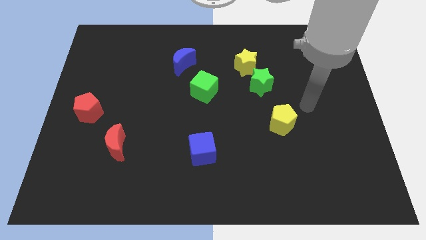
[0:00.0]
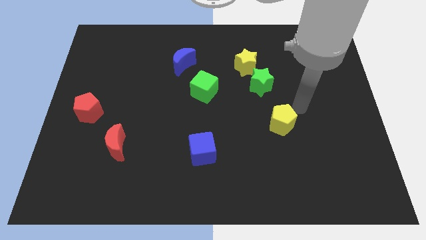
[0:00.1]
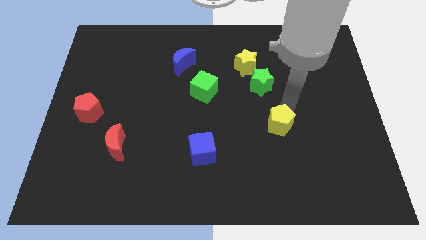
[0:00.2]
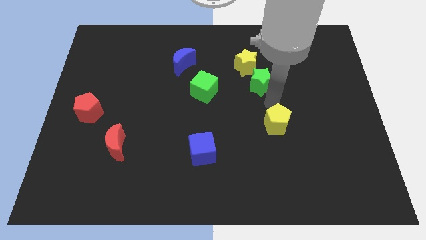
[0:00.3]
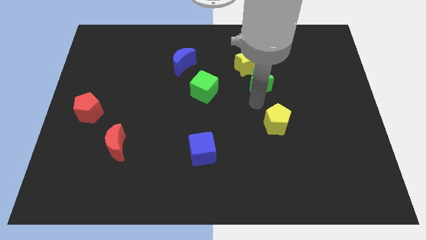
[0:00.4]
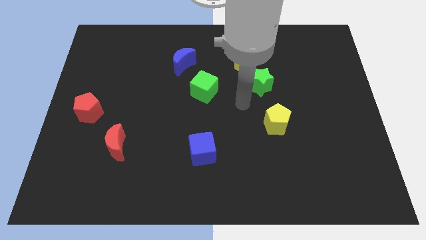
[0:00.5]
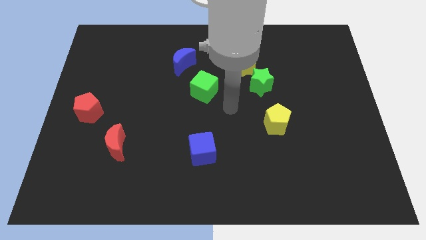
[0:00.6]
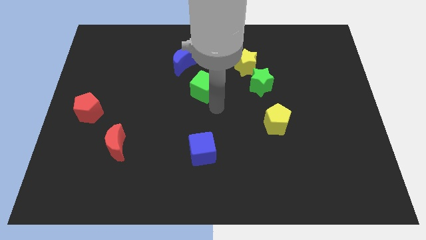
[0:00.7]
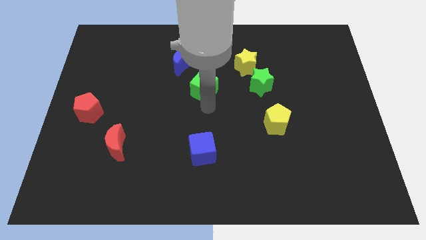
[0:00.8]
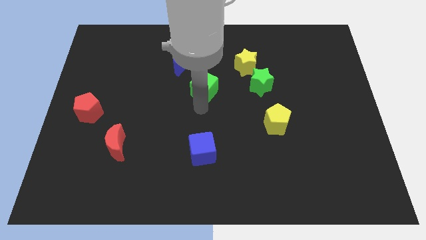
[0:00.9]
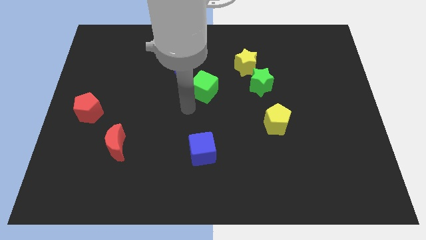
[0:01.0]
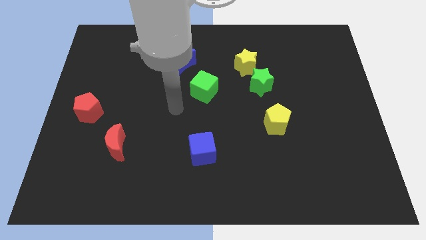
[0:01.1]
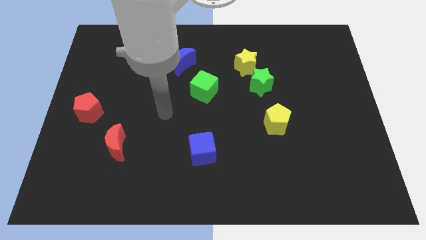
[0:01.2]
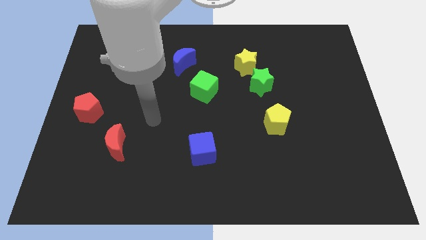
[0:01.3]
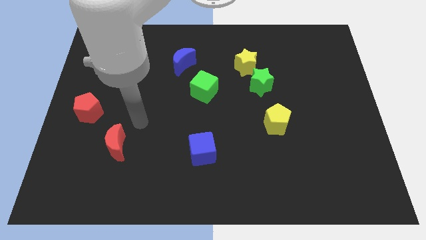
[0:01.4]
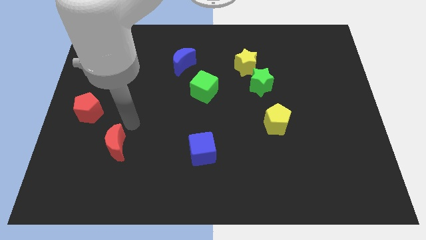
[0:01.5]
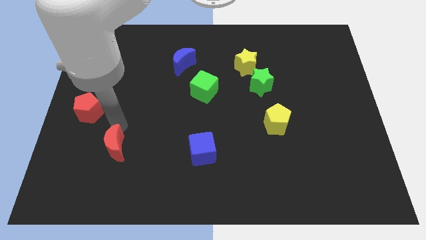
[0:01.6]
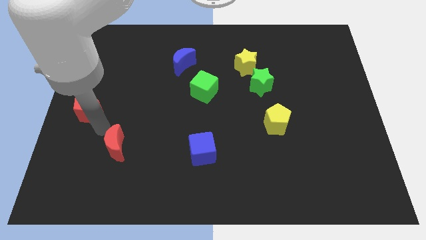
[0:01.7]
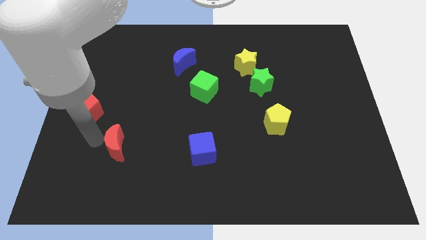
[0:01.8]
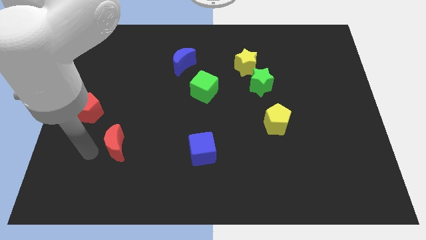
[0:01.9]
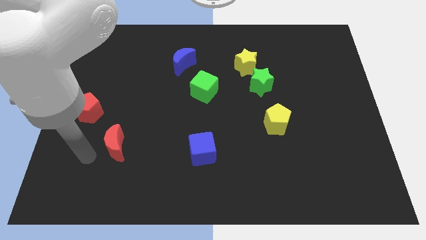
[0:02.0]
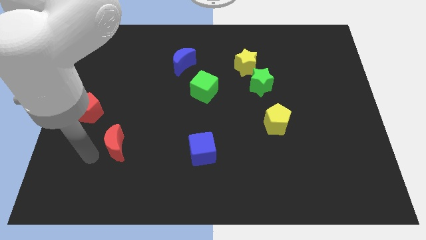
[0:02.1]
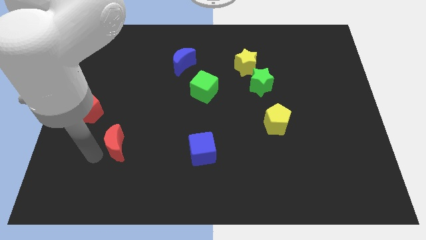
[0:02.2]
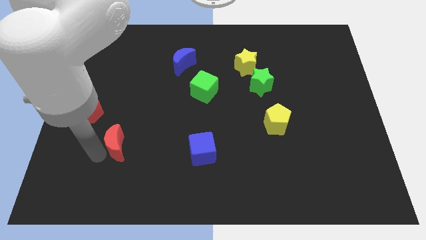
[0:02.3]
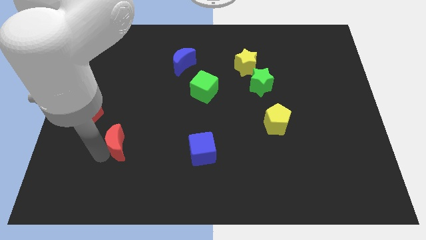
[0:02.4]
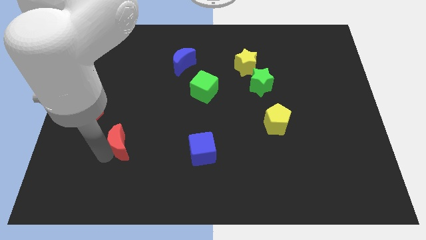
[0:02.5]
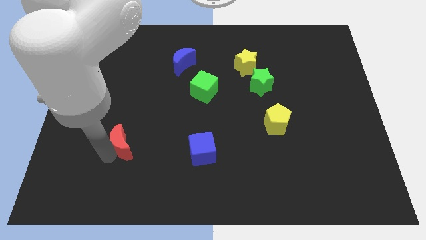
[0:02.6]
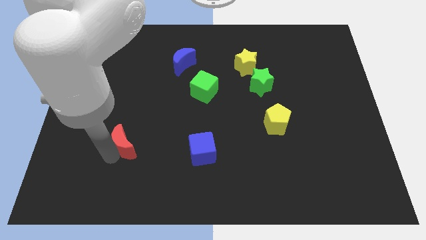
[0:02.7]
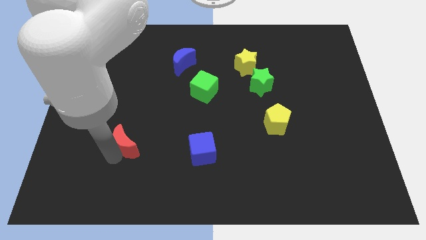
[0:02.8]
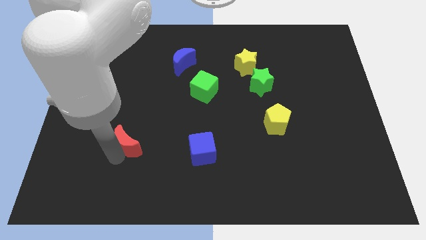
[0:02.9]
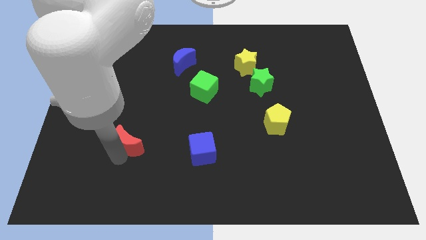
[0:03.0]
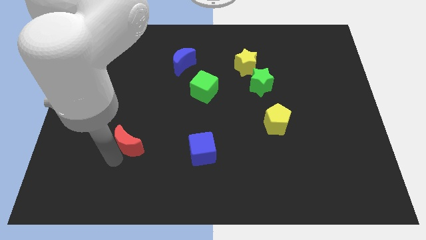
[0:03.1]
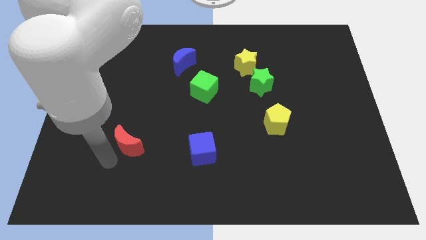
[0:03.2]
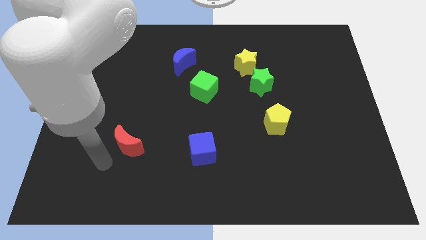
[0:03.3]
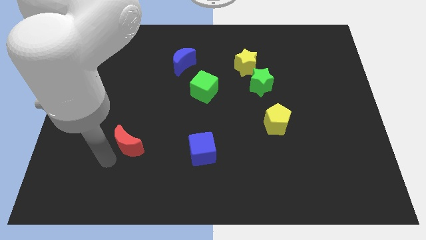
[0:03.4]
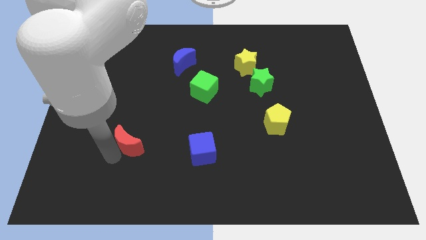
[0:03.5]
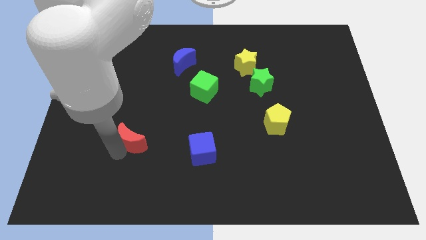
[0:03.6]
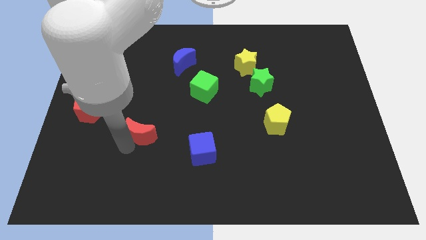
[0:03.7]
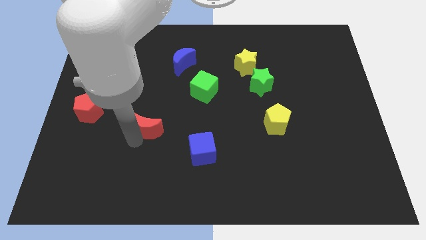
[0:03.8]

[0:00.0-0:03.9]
push the red moon upwards and right diagonally a bit

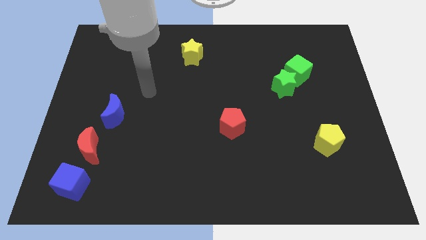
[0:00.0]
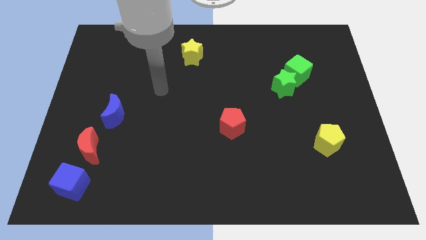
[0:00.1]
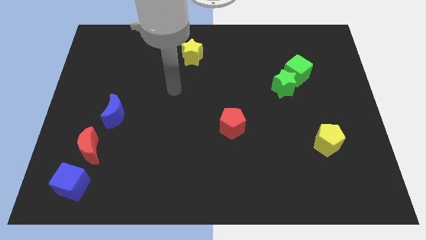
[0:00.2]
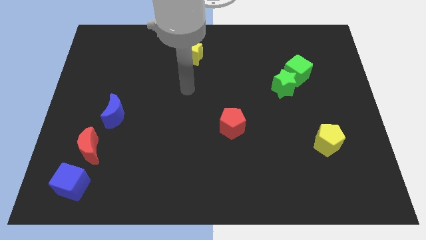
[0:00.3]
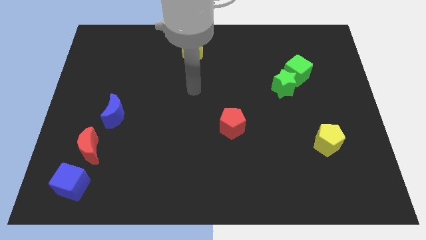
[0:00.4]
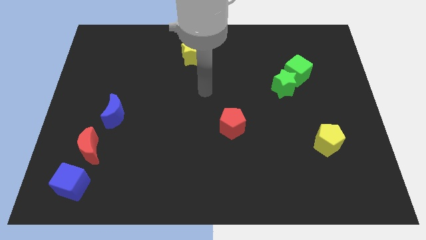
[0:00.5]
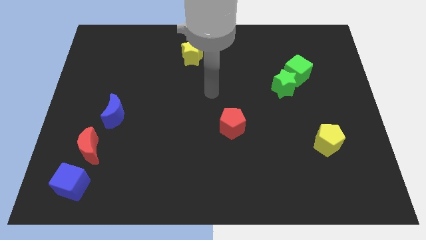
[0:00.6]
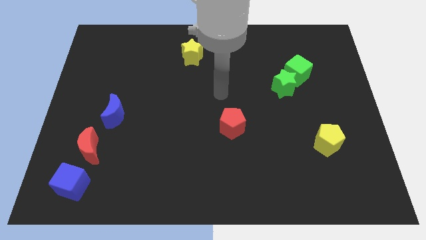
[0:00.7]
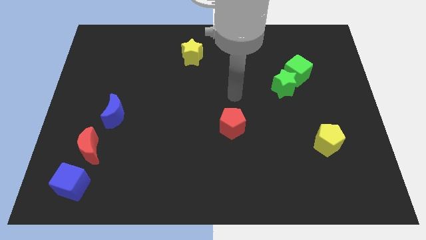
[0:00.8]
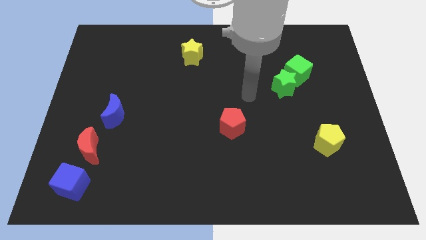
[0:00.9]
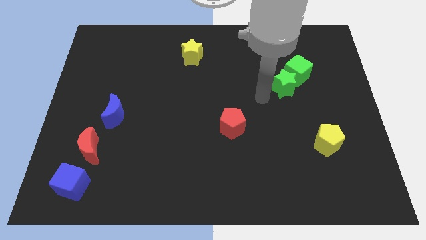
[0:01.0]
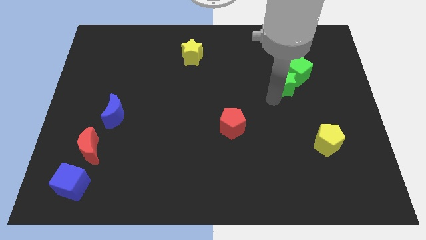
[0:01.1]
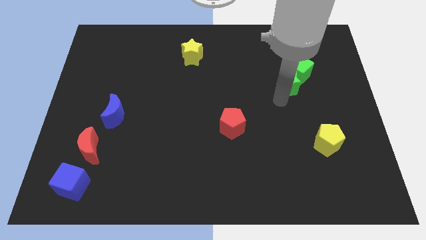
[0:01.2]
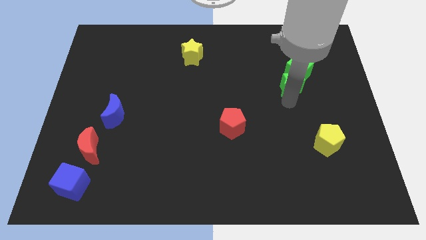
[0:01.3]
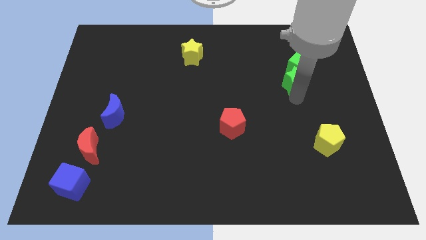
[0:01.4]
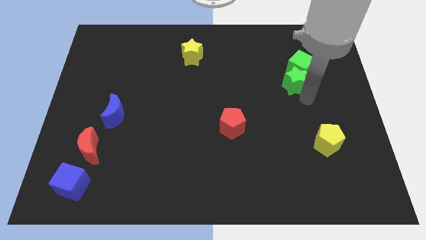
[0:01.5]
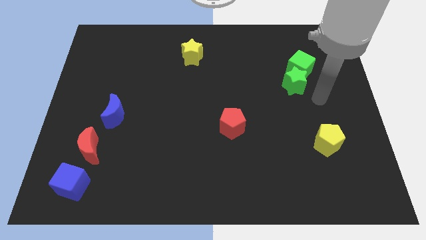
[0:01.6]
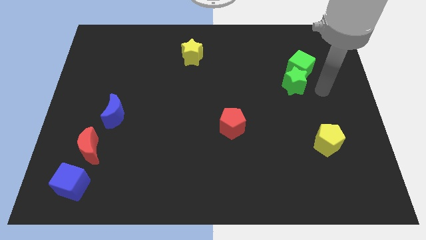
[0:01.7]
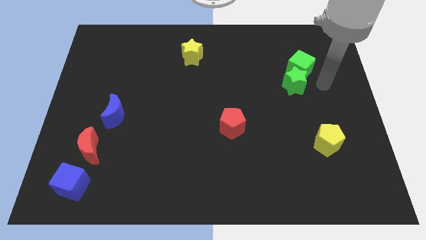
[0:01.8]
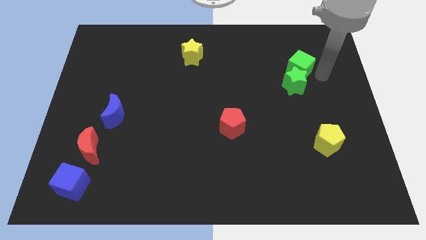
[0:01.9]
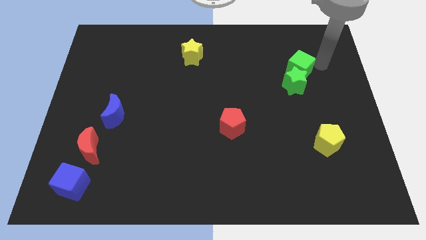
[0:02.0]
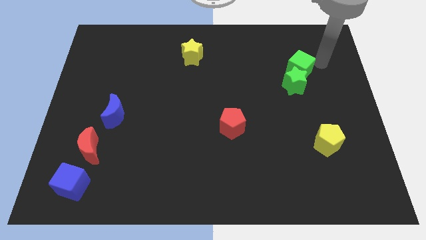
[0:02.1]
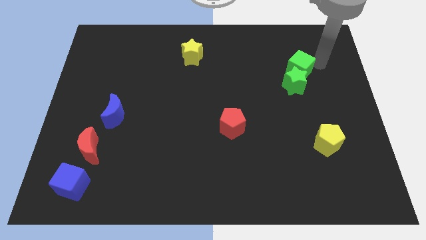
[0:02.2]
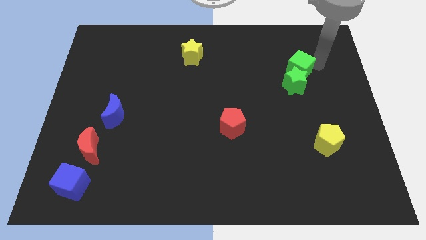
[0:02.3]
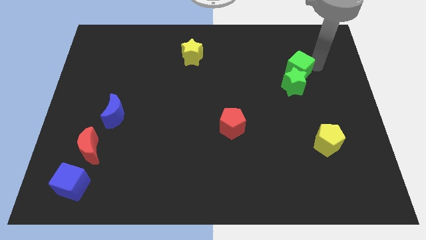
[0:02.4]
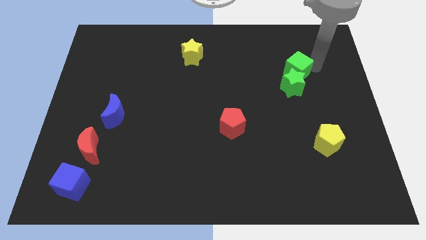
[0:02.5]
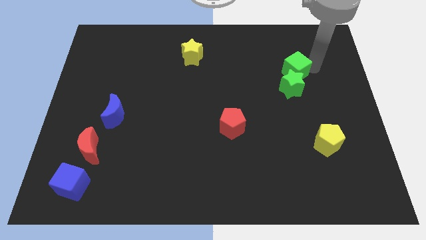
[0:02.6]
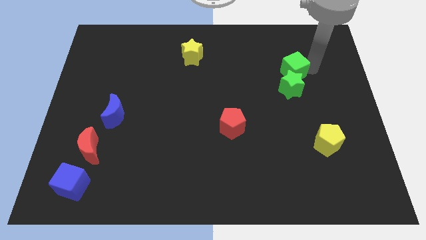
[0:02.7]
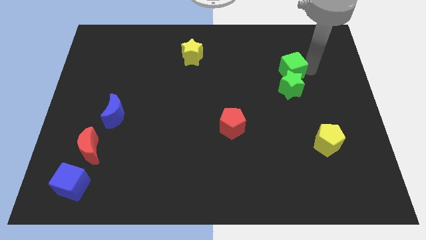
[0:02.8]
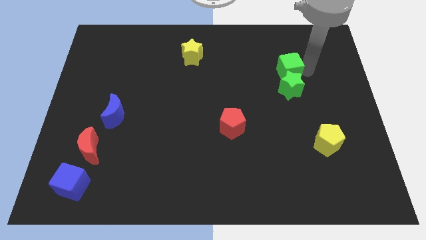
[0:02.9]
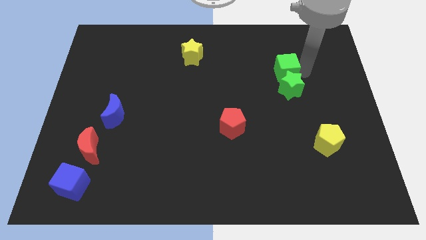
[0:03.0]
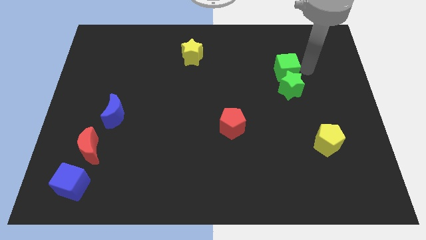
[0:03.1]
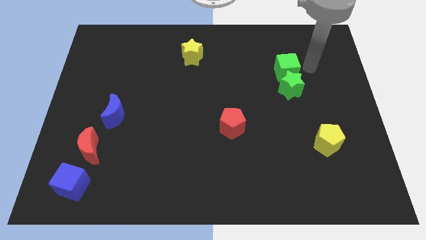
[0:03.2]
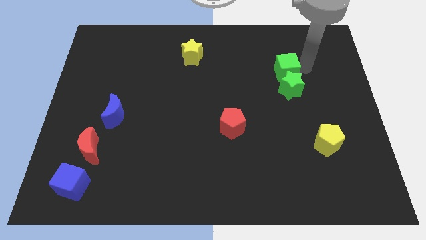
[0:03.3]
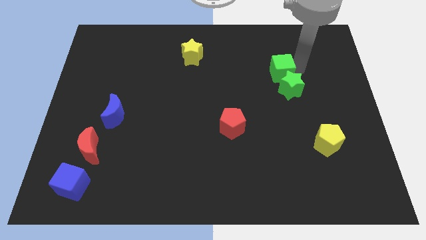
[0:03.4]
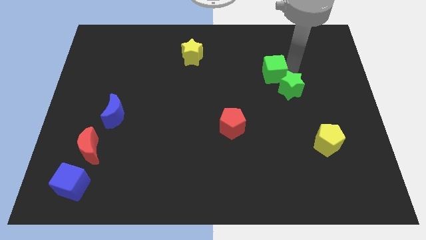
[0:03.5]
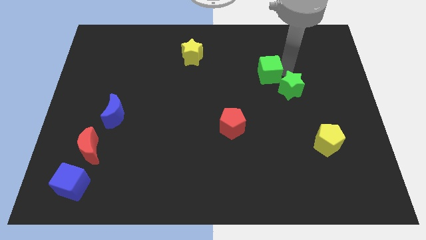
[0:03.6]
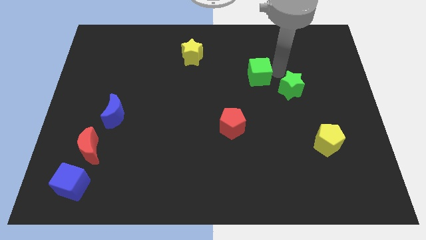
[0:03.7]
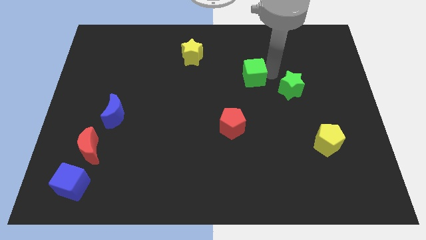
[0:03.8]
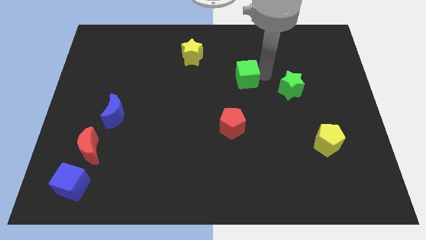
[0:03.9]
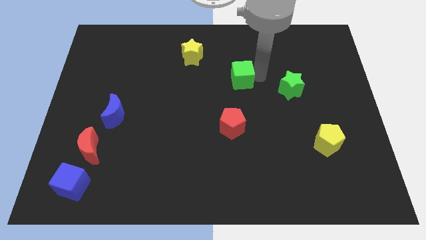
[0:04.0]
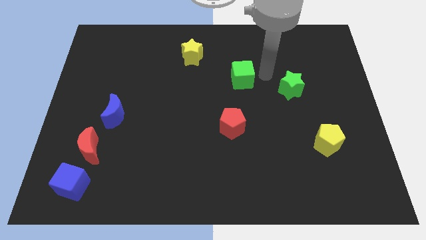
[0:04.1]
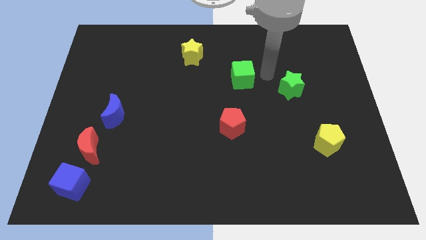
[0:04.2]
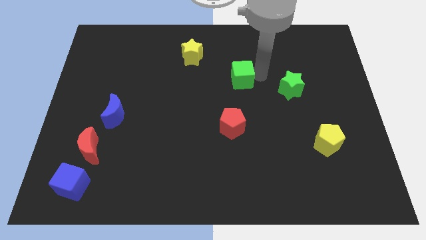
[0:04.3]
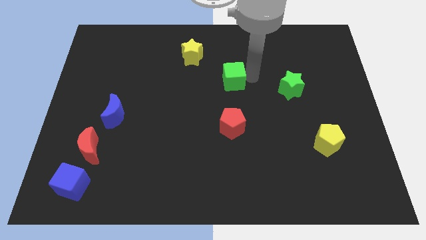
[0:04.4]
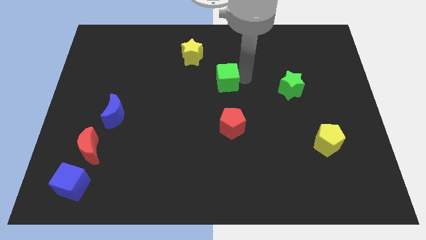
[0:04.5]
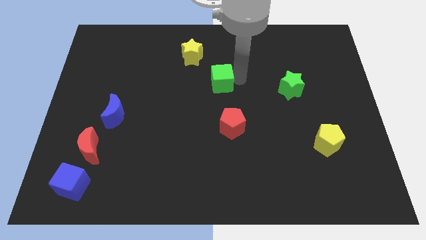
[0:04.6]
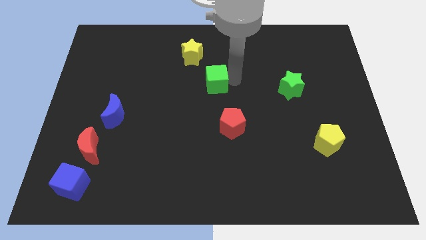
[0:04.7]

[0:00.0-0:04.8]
slide the green cube to the left
